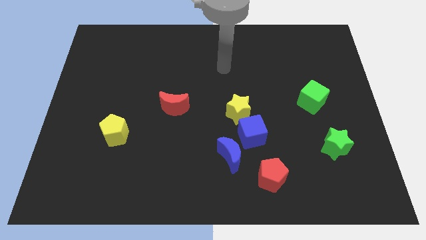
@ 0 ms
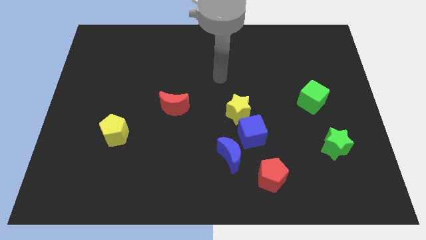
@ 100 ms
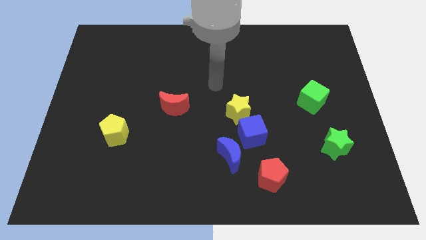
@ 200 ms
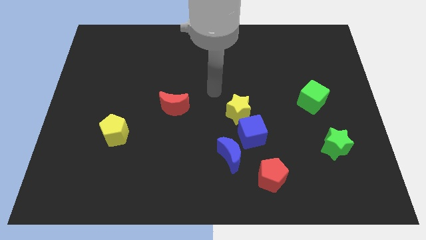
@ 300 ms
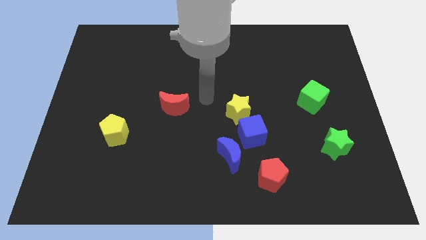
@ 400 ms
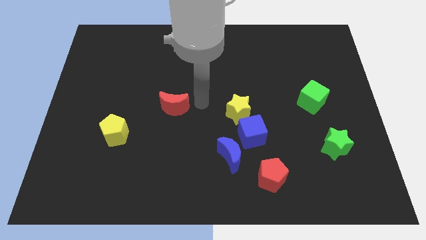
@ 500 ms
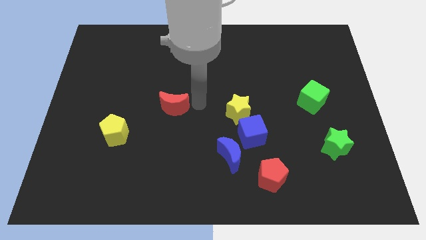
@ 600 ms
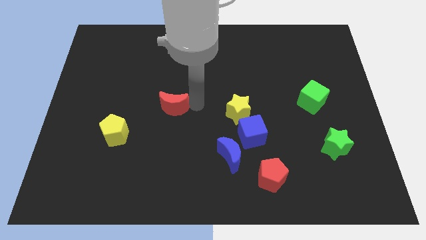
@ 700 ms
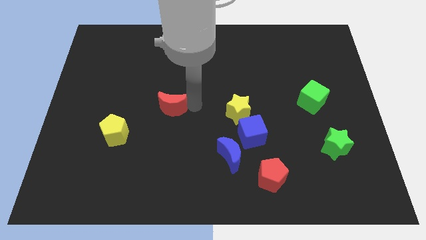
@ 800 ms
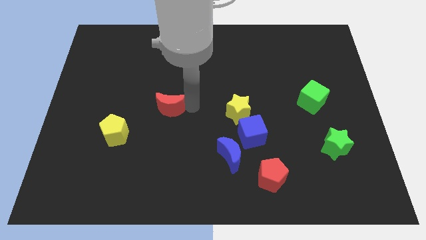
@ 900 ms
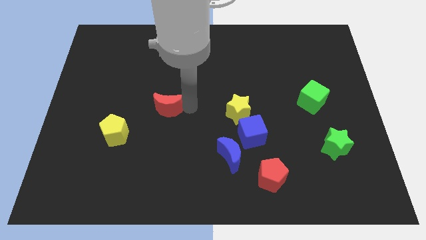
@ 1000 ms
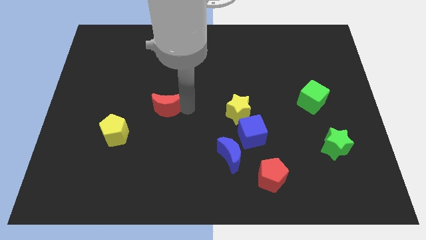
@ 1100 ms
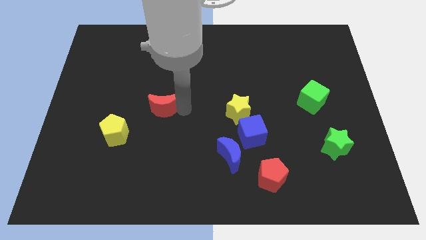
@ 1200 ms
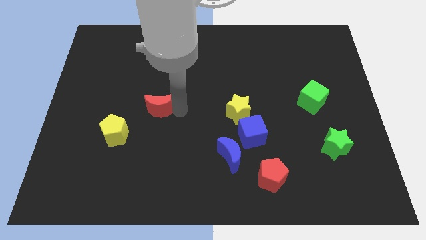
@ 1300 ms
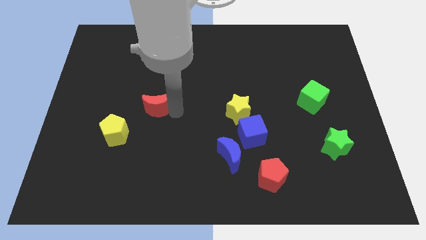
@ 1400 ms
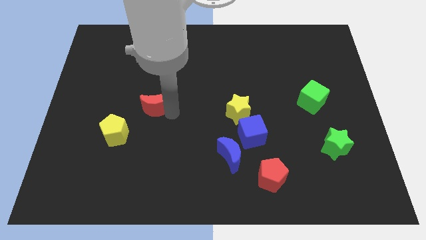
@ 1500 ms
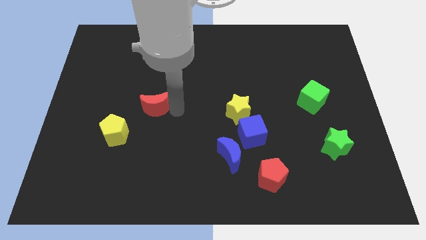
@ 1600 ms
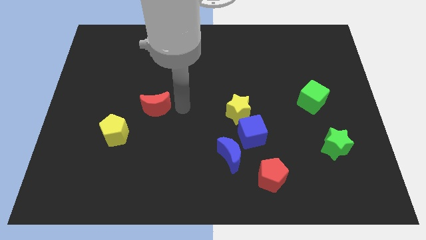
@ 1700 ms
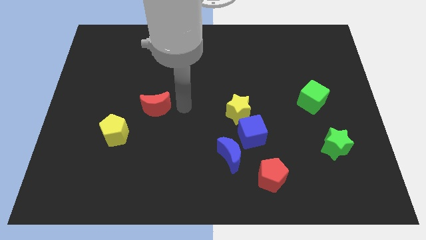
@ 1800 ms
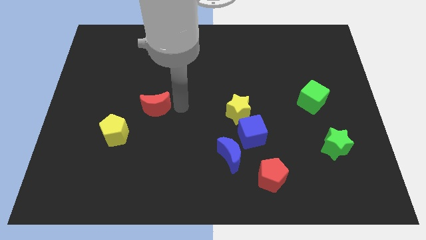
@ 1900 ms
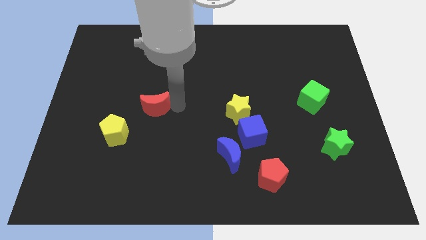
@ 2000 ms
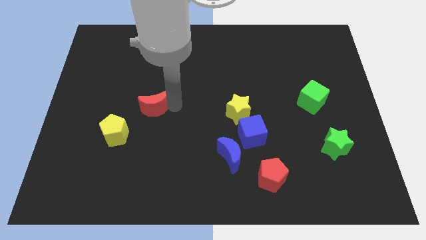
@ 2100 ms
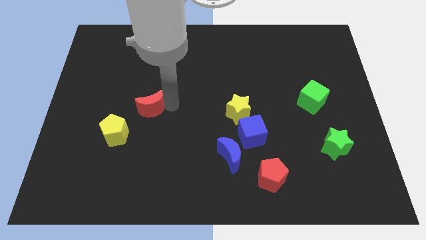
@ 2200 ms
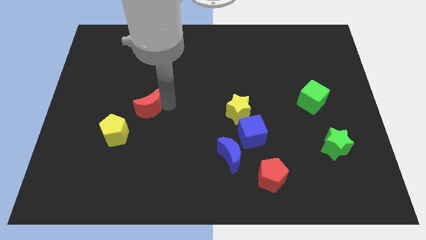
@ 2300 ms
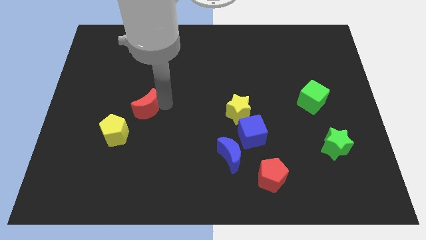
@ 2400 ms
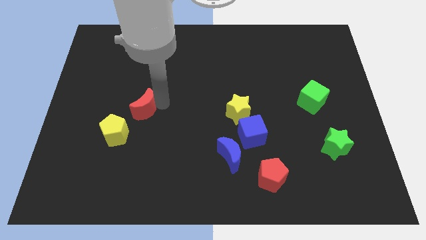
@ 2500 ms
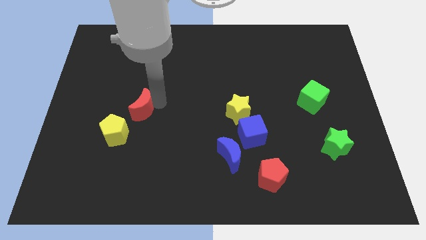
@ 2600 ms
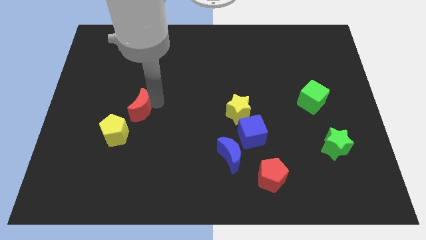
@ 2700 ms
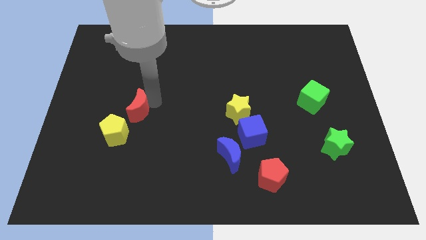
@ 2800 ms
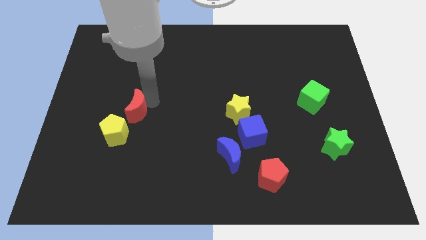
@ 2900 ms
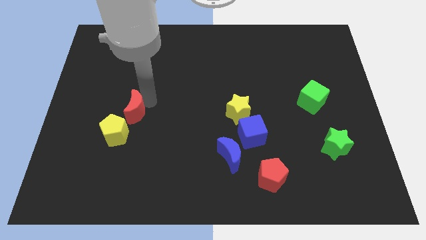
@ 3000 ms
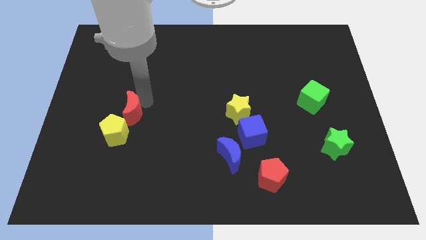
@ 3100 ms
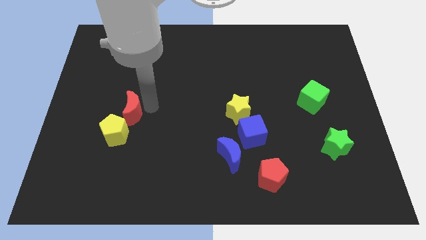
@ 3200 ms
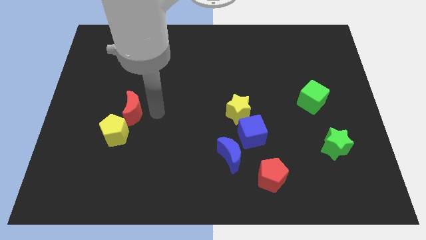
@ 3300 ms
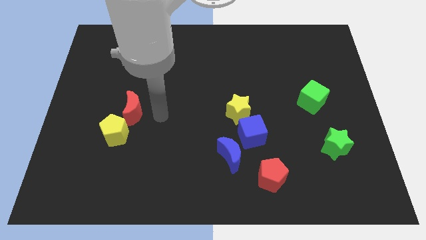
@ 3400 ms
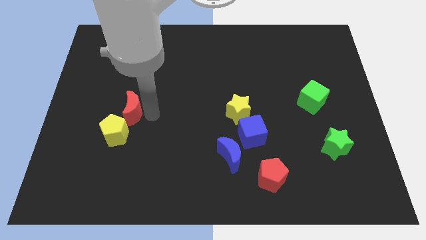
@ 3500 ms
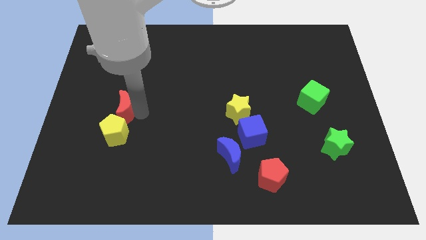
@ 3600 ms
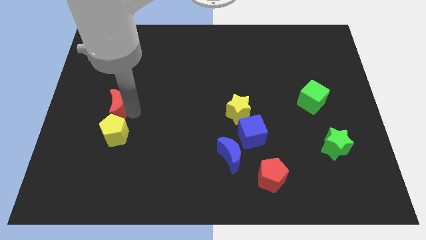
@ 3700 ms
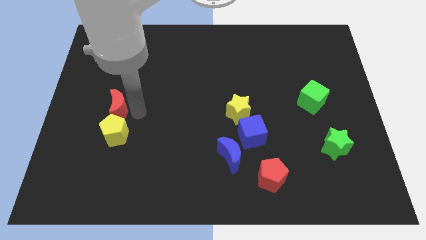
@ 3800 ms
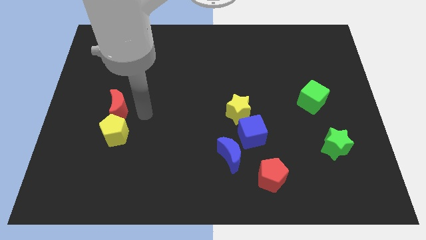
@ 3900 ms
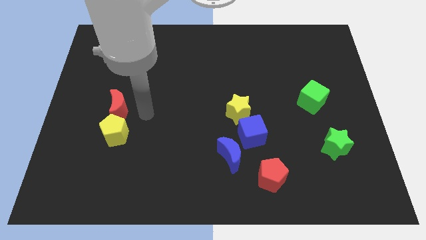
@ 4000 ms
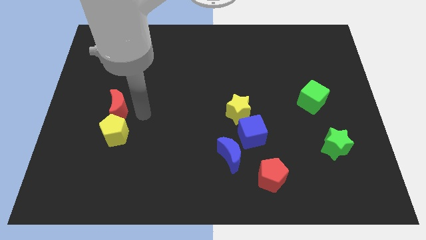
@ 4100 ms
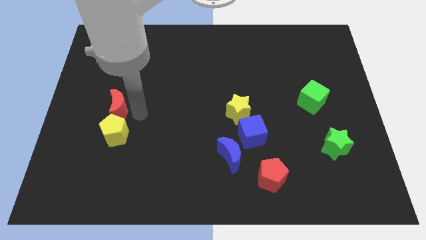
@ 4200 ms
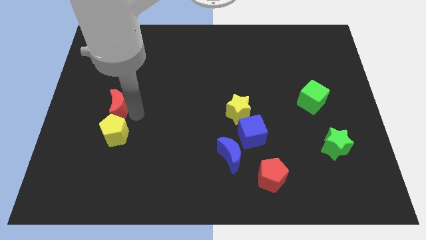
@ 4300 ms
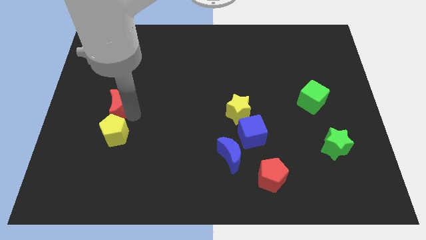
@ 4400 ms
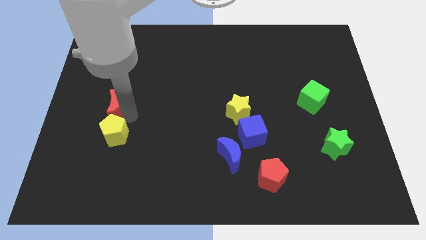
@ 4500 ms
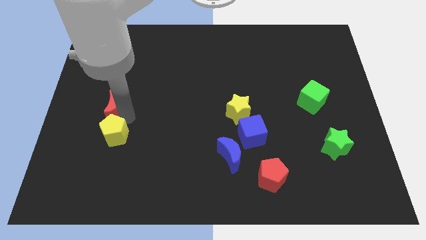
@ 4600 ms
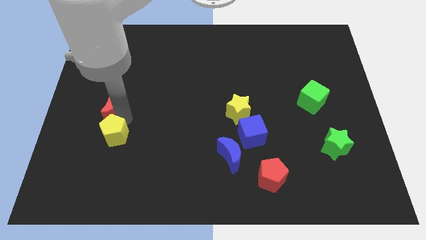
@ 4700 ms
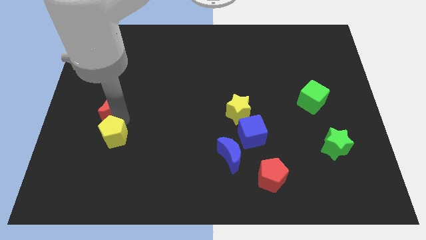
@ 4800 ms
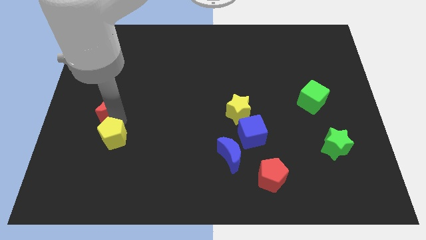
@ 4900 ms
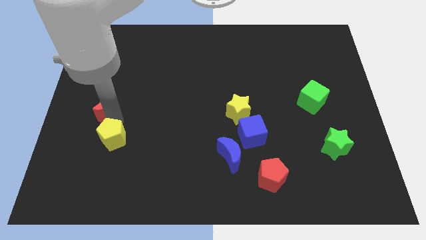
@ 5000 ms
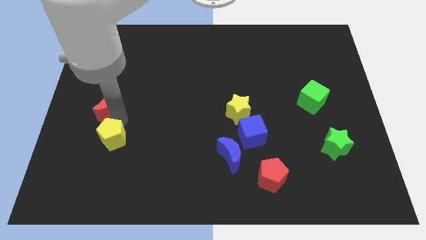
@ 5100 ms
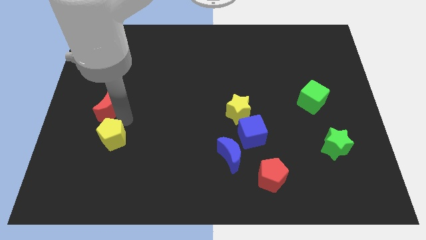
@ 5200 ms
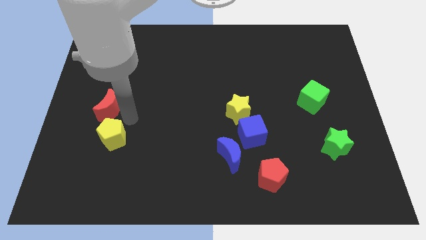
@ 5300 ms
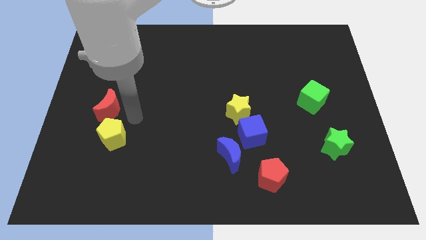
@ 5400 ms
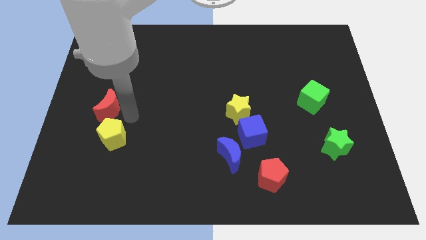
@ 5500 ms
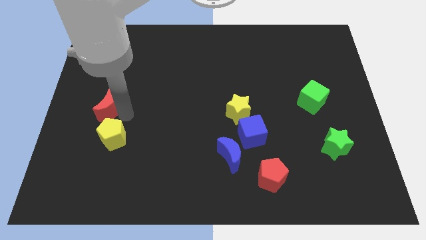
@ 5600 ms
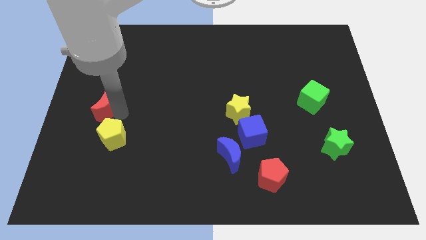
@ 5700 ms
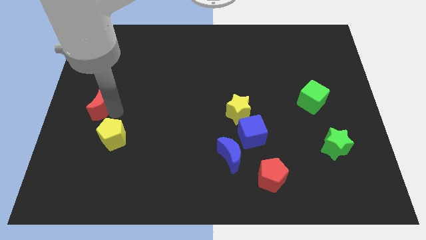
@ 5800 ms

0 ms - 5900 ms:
move the red moon to the left side

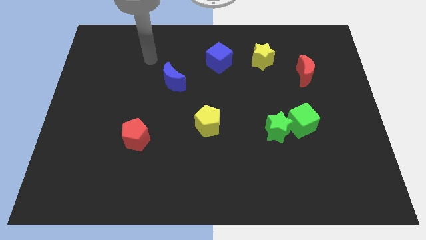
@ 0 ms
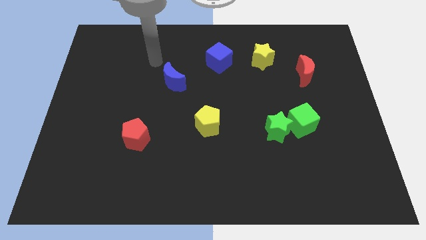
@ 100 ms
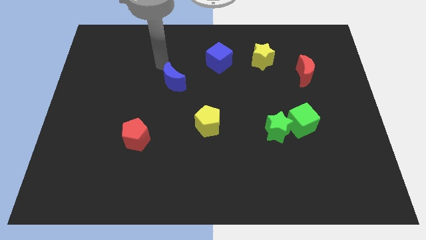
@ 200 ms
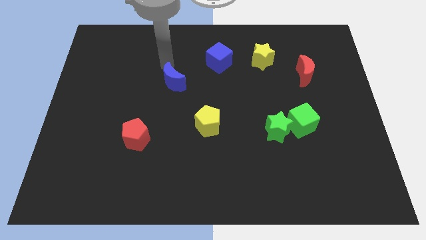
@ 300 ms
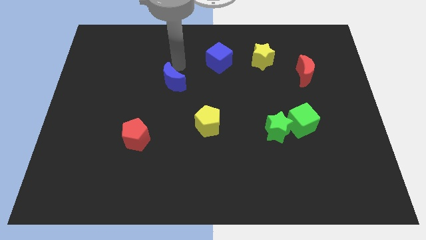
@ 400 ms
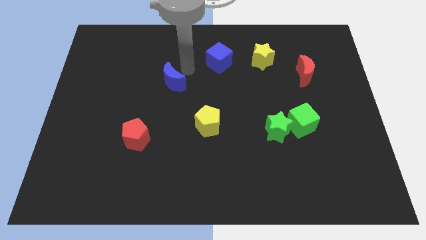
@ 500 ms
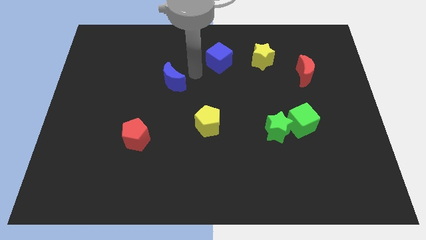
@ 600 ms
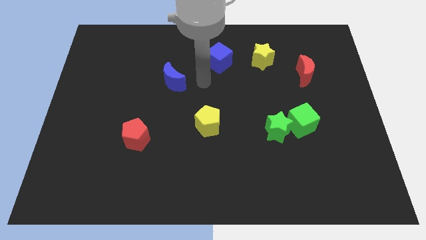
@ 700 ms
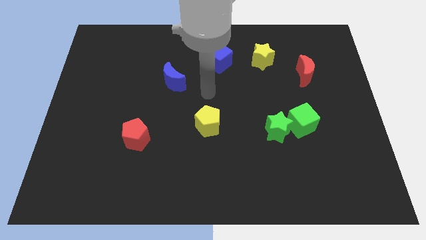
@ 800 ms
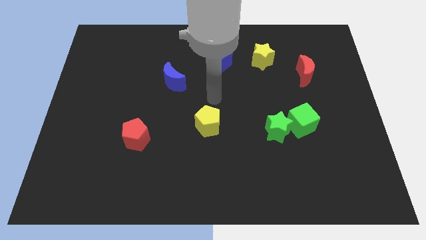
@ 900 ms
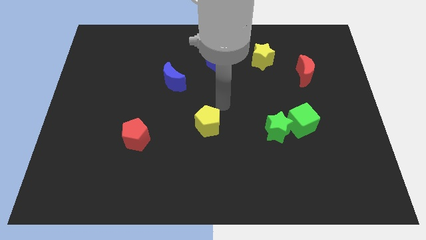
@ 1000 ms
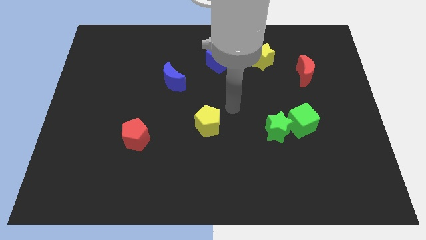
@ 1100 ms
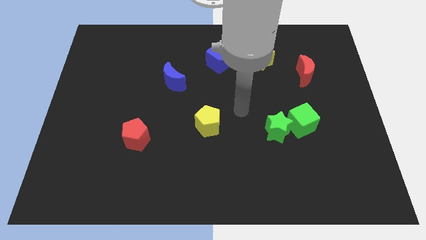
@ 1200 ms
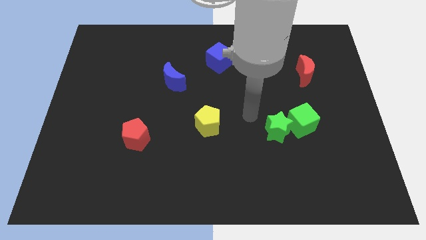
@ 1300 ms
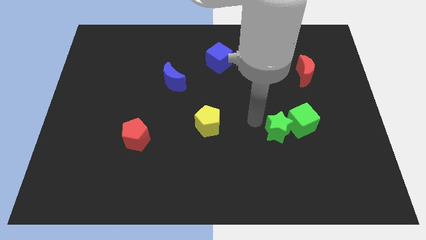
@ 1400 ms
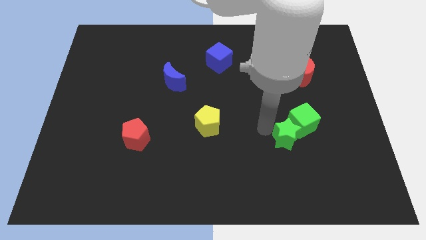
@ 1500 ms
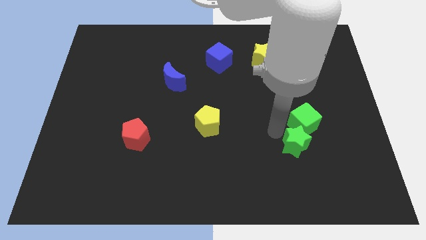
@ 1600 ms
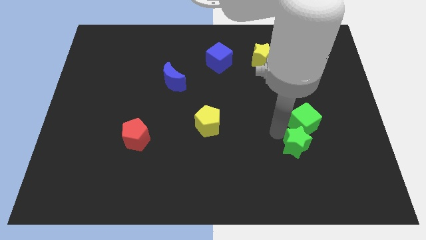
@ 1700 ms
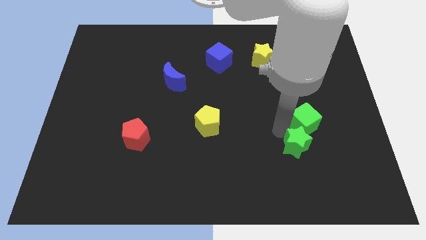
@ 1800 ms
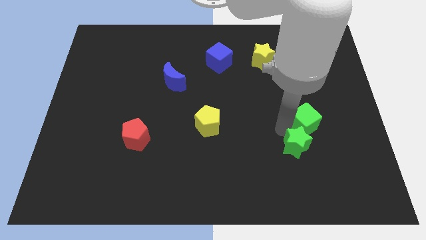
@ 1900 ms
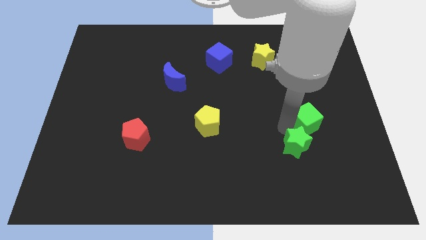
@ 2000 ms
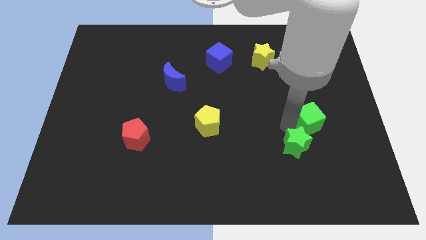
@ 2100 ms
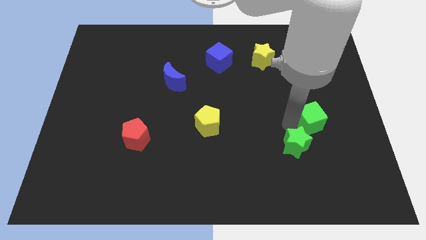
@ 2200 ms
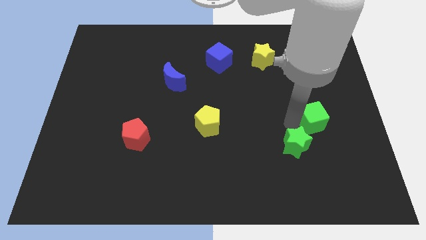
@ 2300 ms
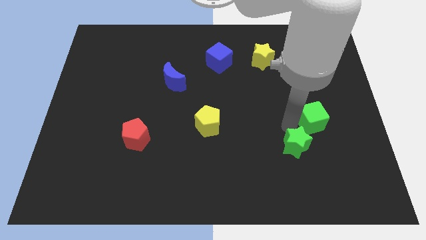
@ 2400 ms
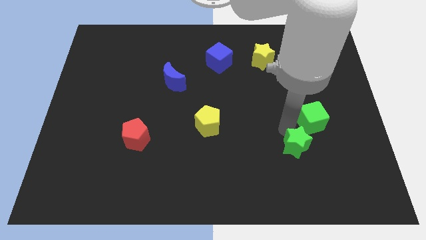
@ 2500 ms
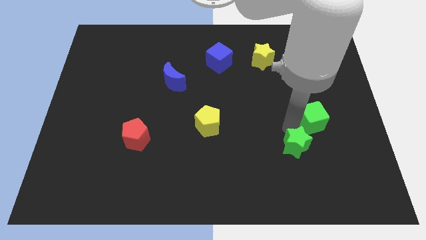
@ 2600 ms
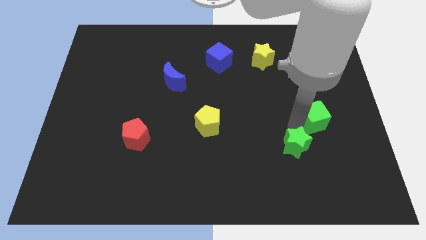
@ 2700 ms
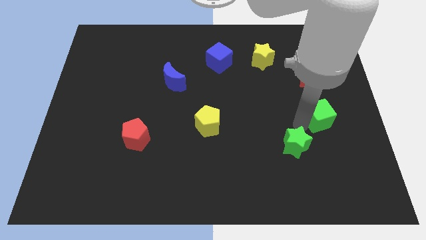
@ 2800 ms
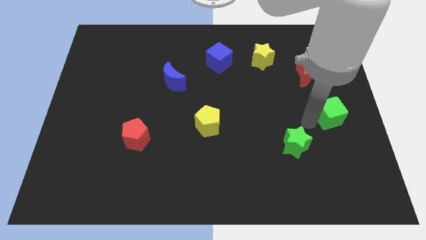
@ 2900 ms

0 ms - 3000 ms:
move the green cube to the right side
